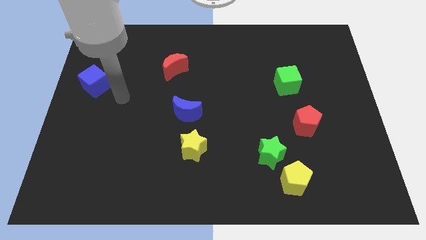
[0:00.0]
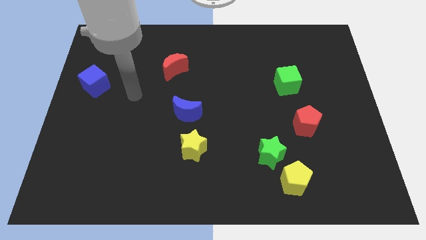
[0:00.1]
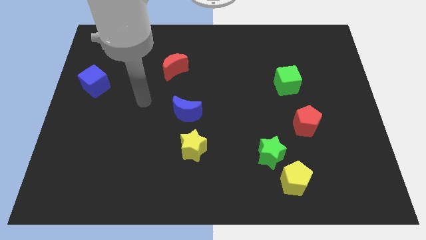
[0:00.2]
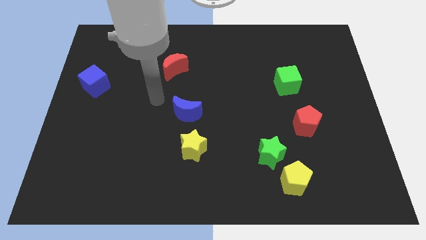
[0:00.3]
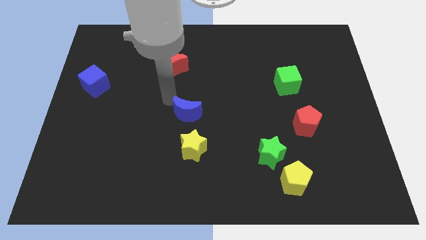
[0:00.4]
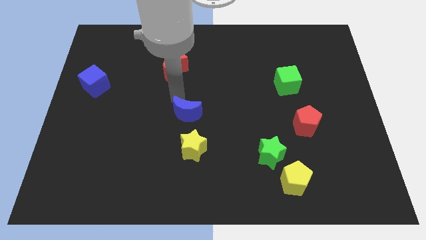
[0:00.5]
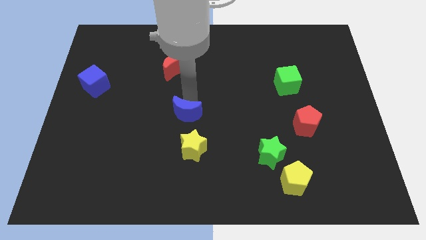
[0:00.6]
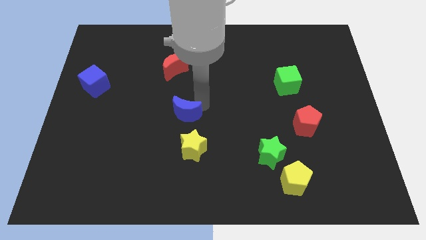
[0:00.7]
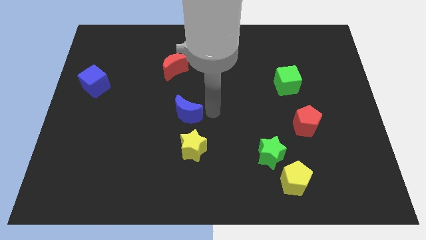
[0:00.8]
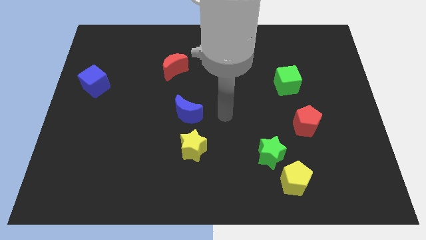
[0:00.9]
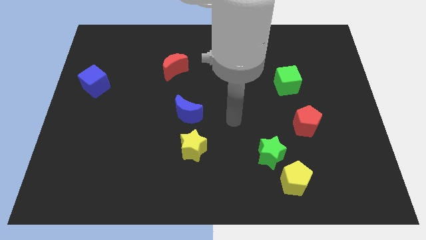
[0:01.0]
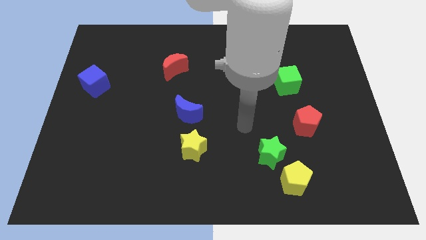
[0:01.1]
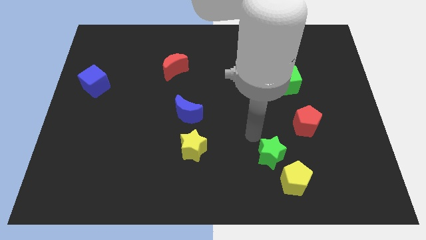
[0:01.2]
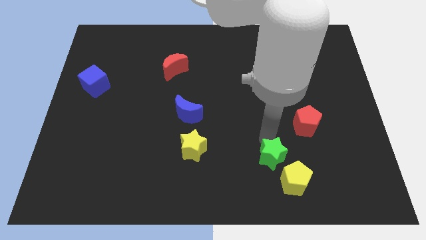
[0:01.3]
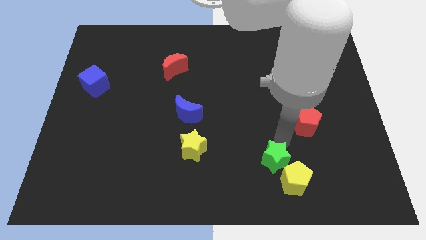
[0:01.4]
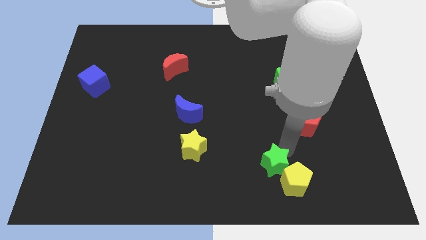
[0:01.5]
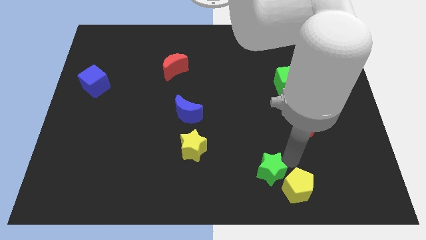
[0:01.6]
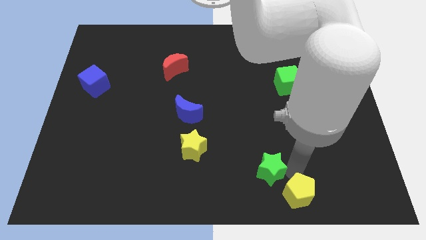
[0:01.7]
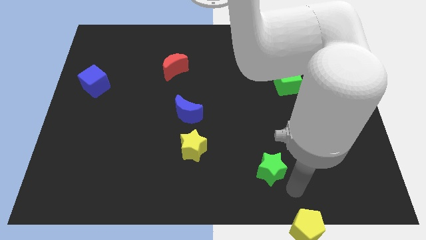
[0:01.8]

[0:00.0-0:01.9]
move the green star away from the yellow pentagon

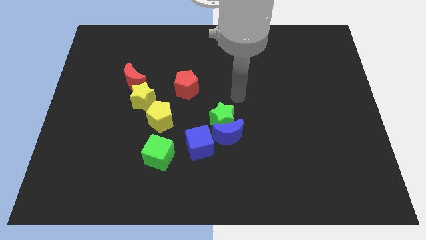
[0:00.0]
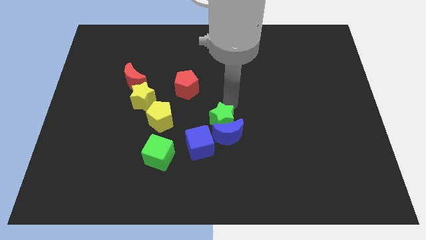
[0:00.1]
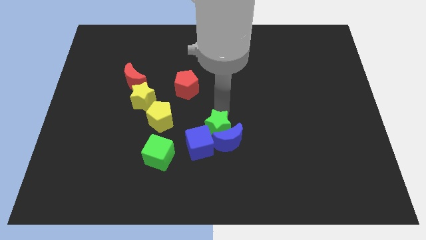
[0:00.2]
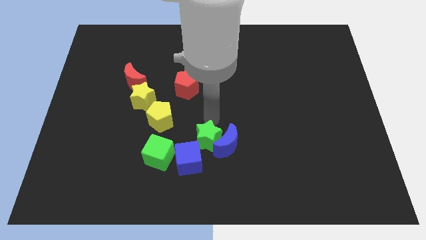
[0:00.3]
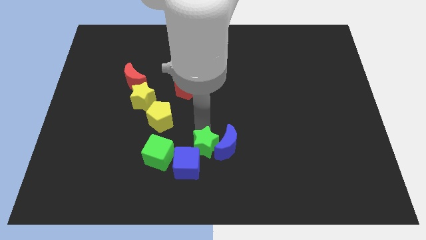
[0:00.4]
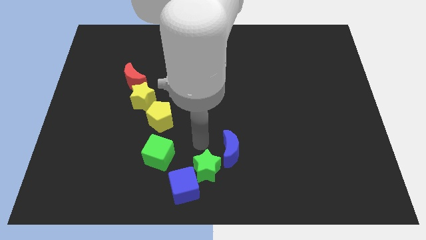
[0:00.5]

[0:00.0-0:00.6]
pull the blue moon apart from the green star and blue cube

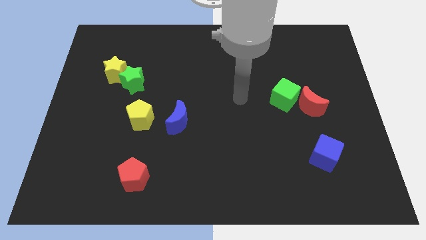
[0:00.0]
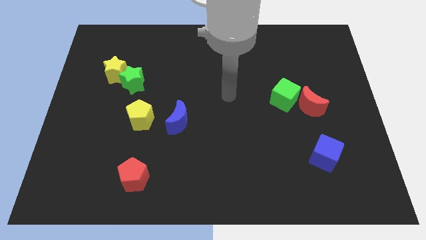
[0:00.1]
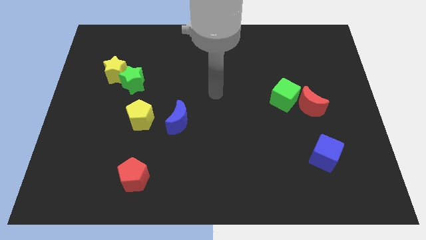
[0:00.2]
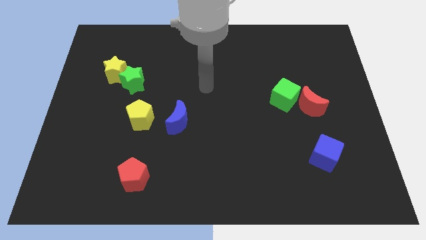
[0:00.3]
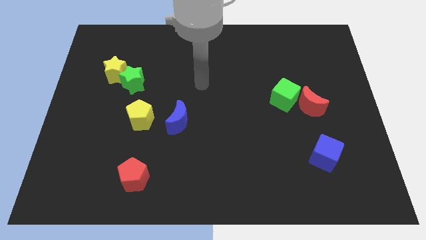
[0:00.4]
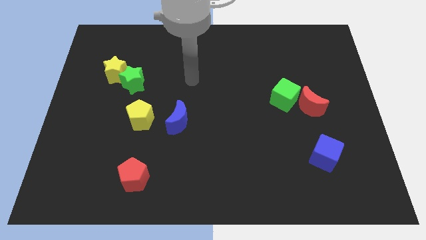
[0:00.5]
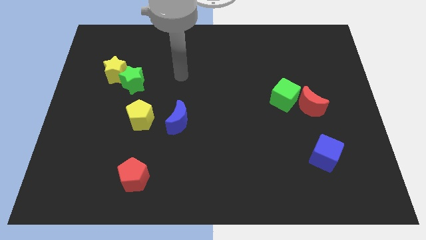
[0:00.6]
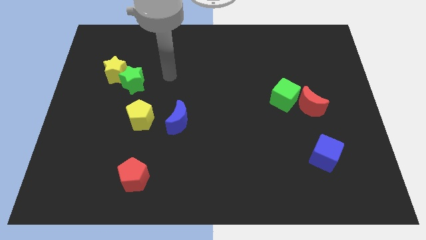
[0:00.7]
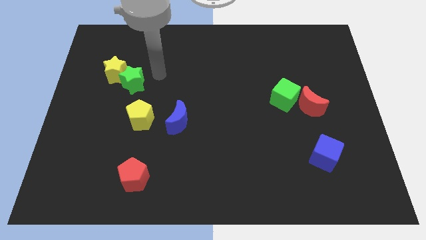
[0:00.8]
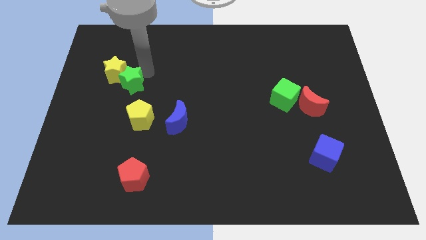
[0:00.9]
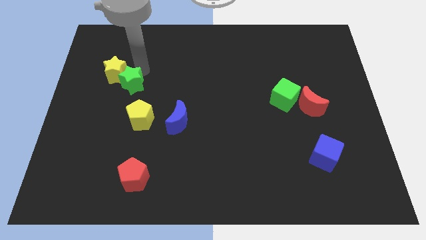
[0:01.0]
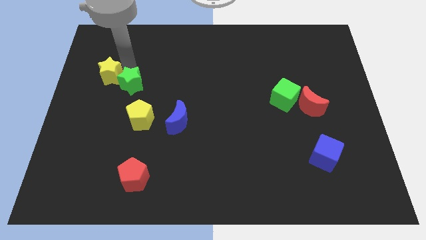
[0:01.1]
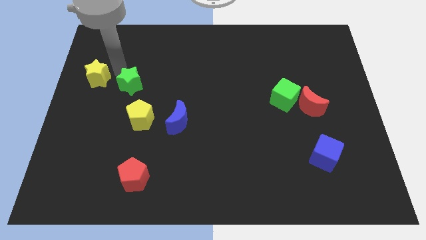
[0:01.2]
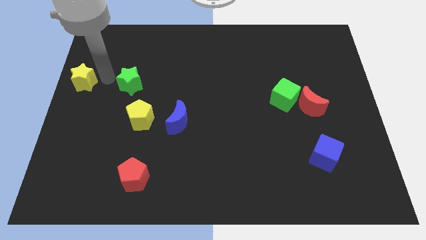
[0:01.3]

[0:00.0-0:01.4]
move the green star away from the yellow star

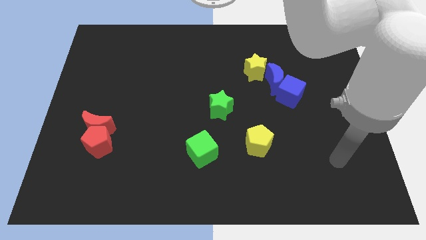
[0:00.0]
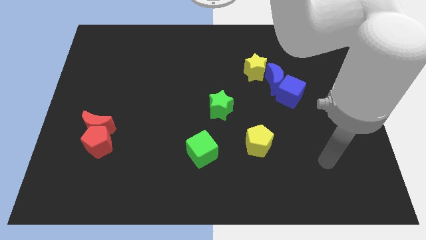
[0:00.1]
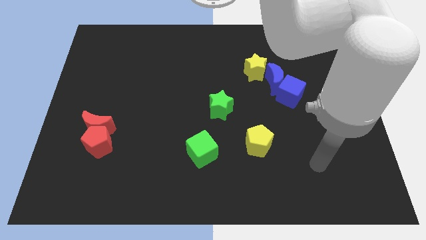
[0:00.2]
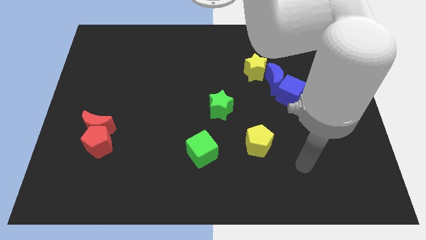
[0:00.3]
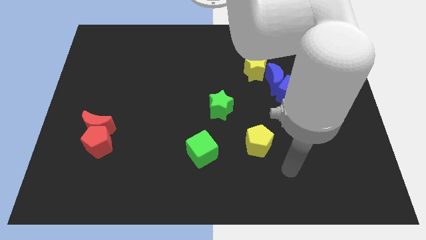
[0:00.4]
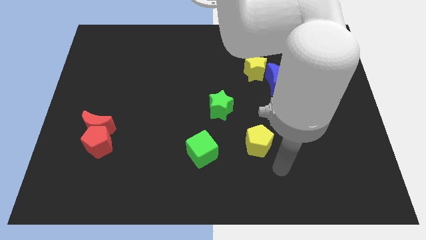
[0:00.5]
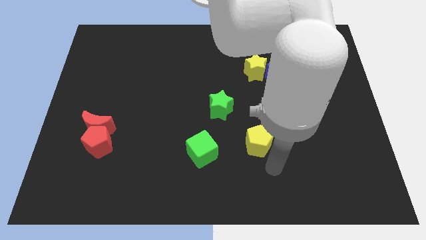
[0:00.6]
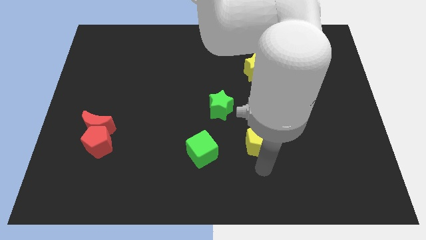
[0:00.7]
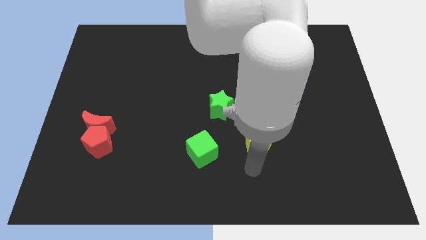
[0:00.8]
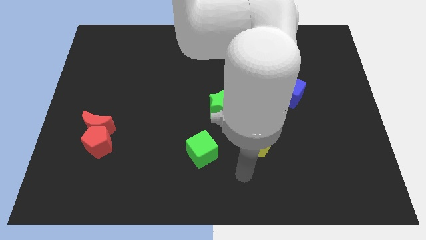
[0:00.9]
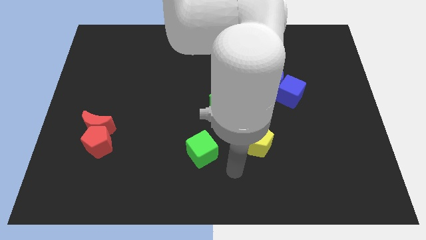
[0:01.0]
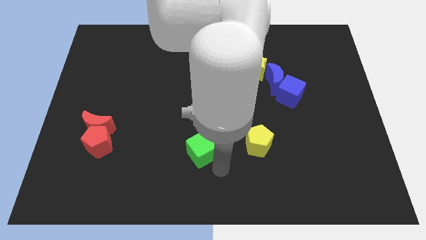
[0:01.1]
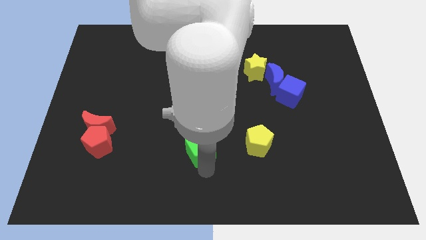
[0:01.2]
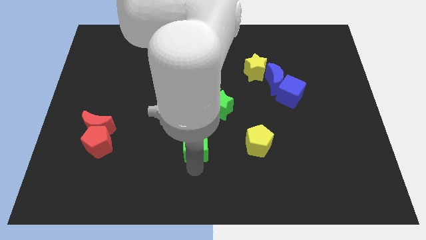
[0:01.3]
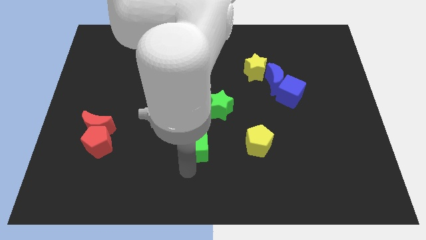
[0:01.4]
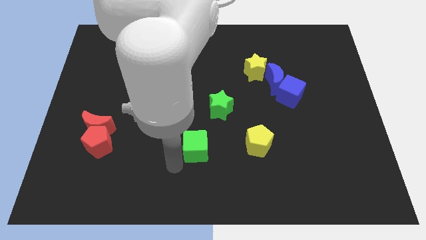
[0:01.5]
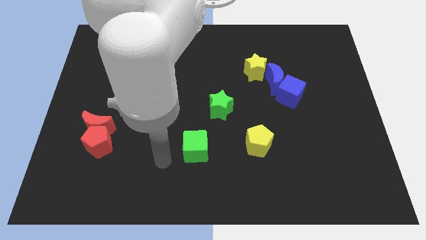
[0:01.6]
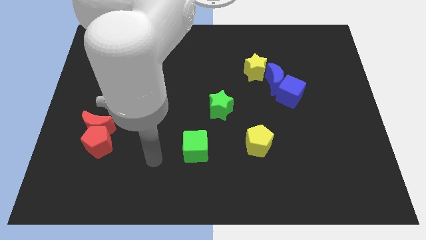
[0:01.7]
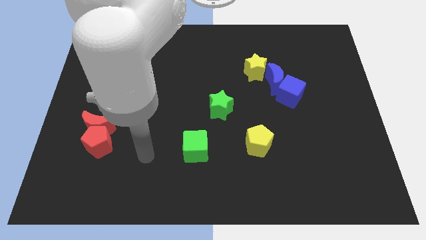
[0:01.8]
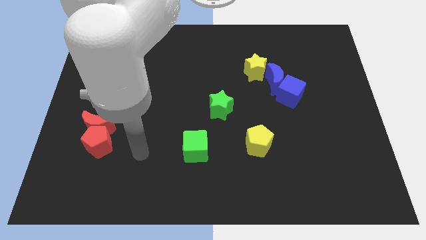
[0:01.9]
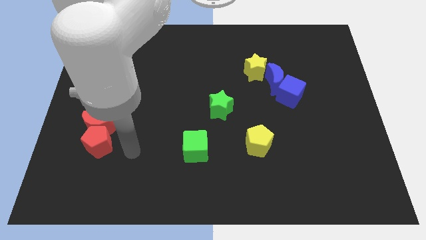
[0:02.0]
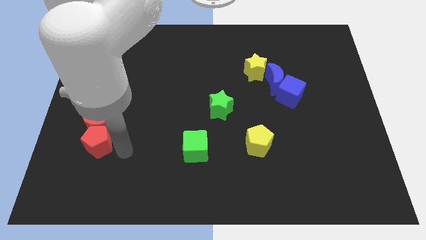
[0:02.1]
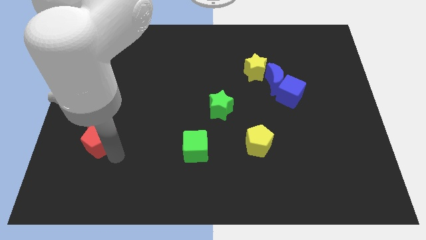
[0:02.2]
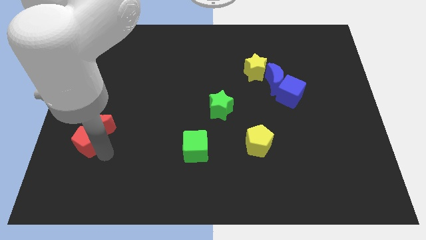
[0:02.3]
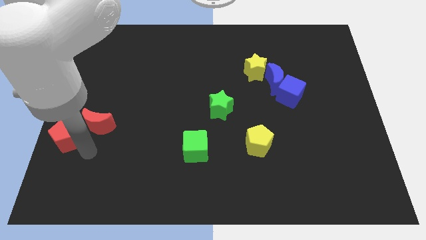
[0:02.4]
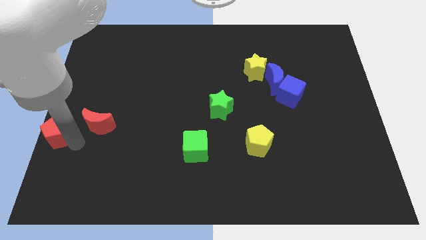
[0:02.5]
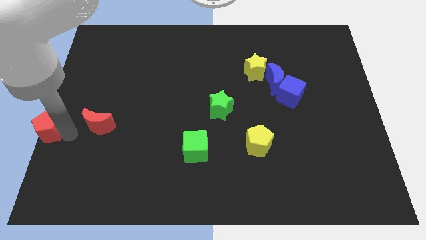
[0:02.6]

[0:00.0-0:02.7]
pull the red moon apart from the red pentagon

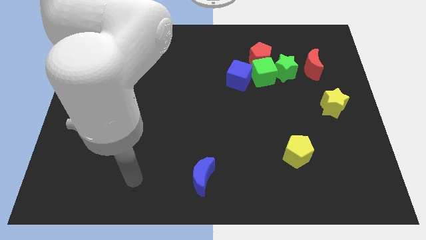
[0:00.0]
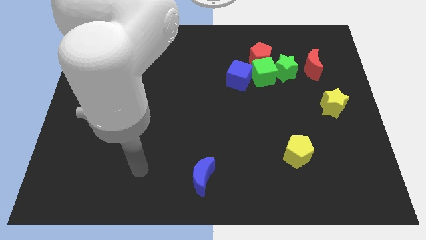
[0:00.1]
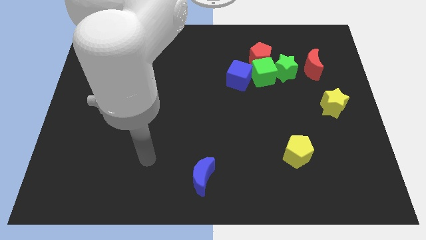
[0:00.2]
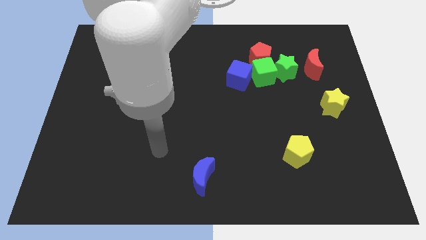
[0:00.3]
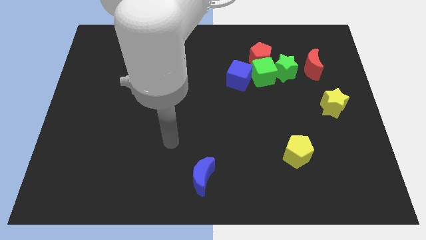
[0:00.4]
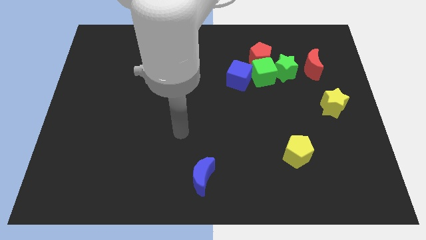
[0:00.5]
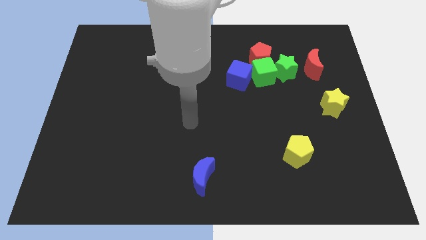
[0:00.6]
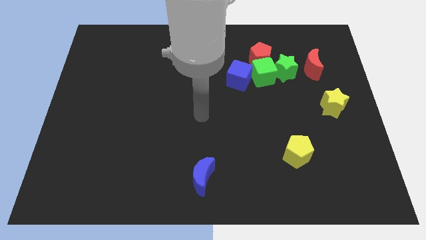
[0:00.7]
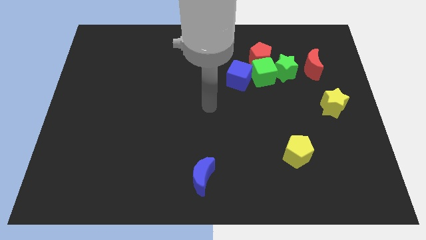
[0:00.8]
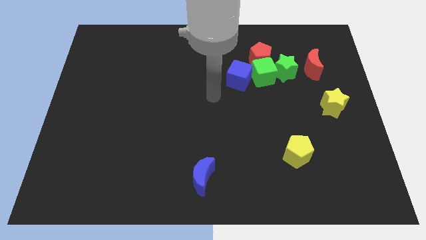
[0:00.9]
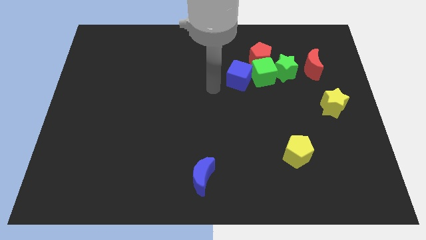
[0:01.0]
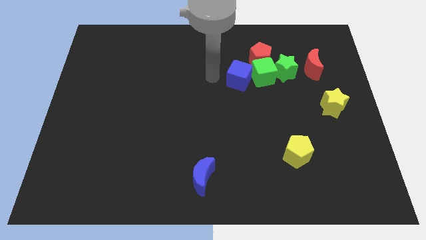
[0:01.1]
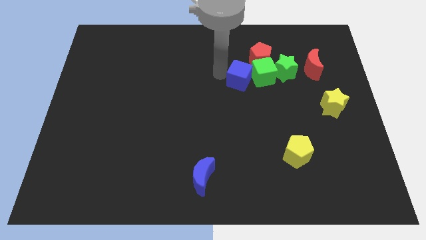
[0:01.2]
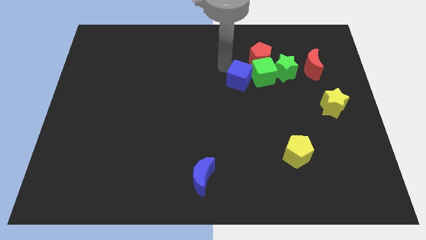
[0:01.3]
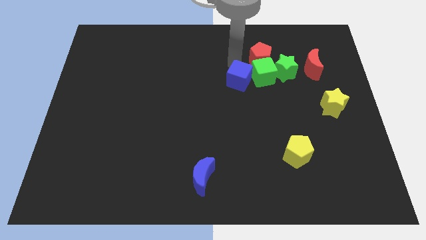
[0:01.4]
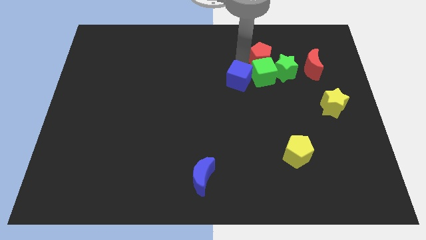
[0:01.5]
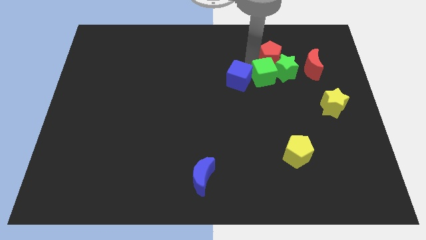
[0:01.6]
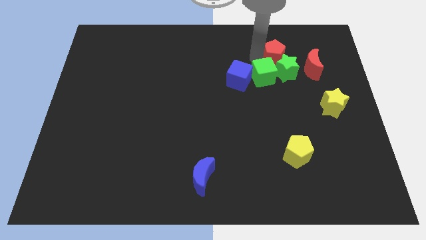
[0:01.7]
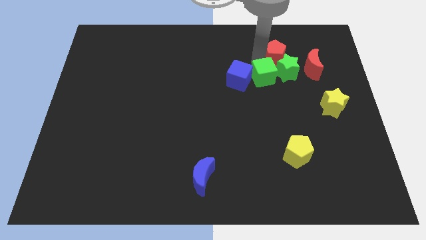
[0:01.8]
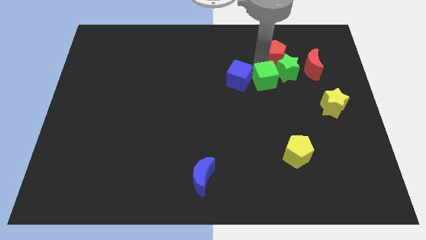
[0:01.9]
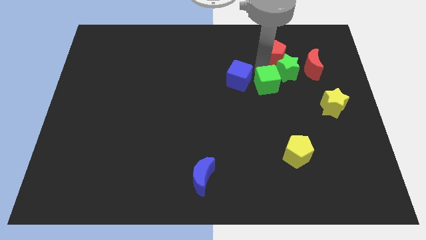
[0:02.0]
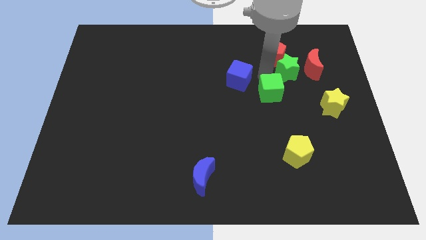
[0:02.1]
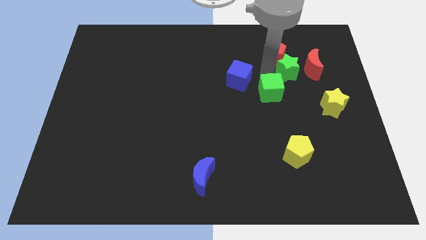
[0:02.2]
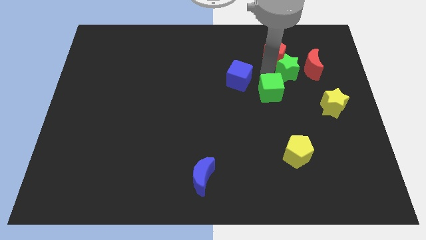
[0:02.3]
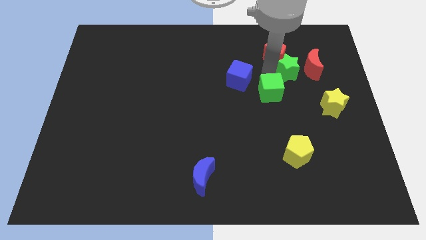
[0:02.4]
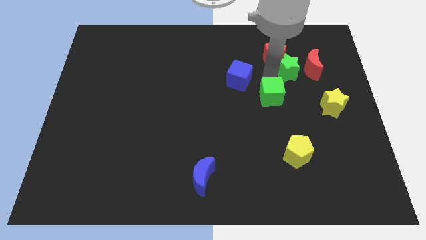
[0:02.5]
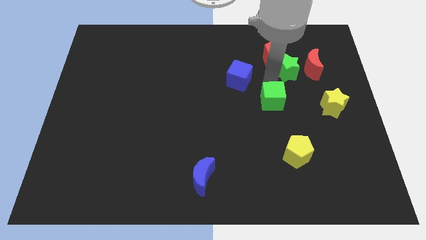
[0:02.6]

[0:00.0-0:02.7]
separate the green cube from the group of blocks
